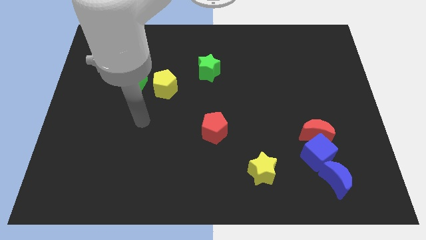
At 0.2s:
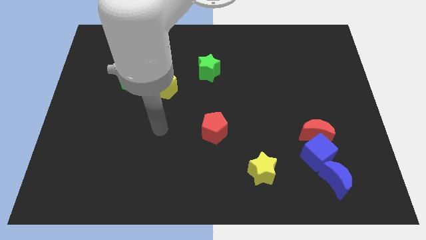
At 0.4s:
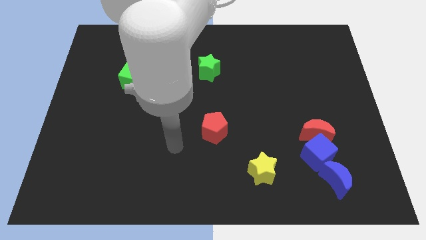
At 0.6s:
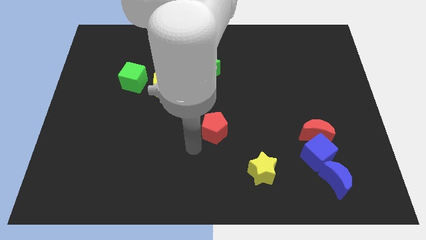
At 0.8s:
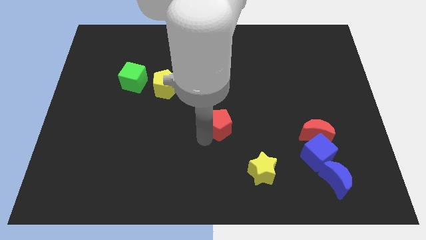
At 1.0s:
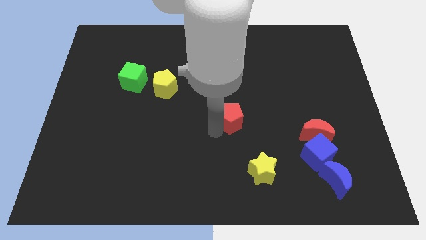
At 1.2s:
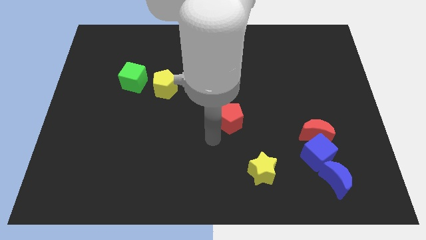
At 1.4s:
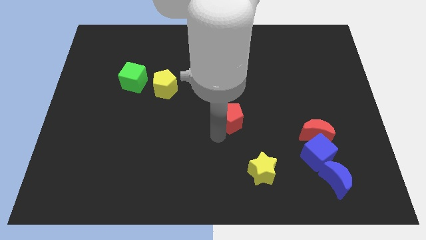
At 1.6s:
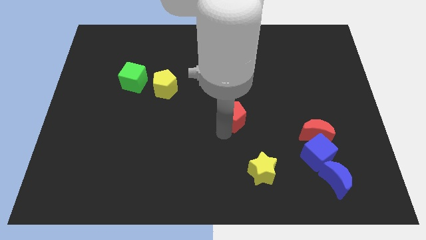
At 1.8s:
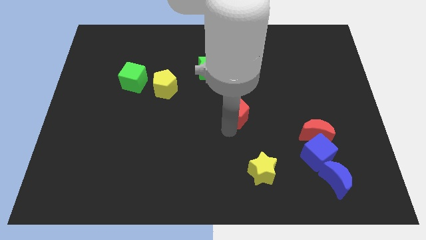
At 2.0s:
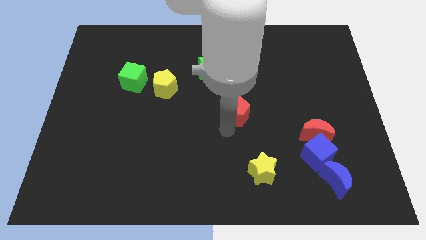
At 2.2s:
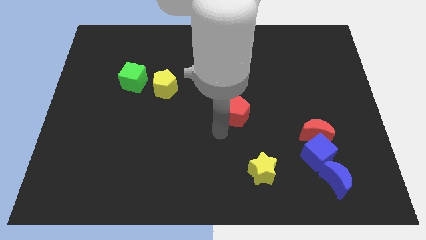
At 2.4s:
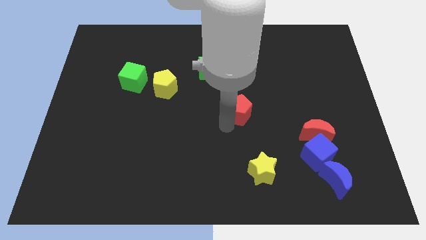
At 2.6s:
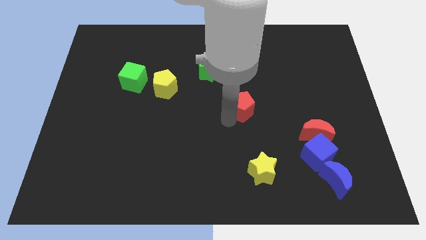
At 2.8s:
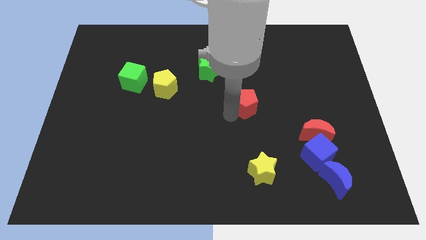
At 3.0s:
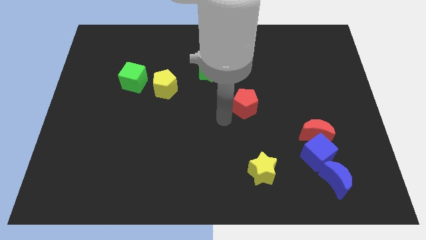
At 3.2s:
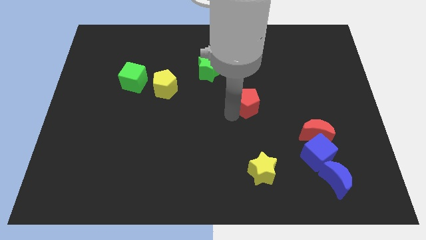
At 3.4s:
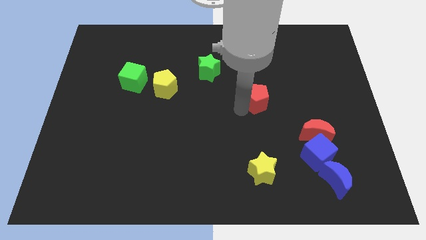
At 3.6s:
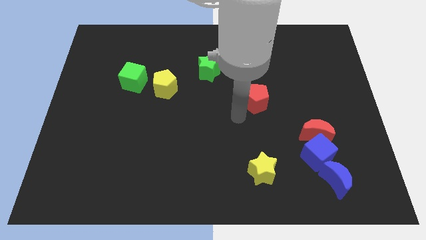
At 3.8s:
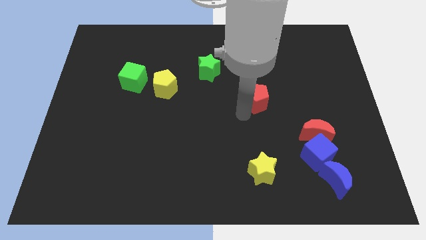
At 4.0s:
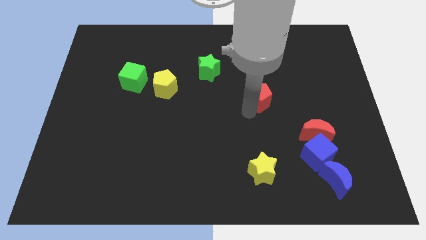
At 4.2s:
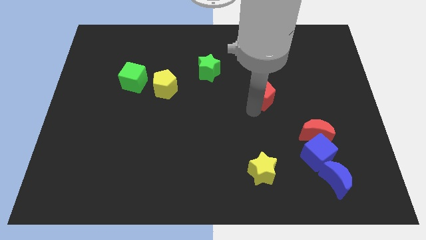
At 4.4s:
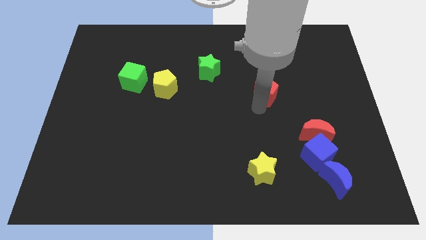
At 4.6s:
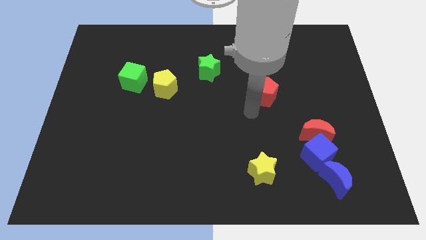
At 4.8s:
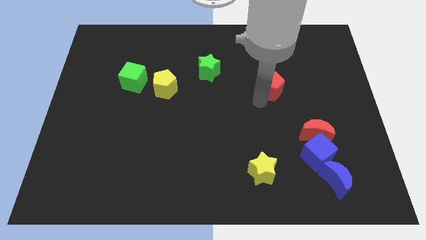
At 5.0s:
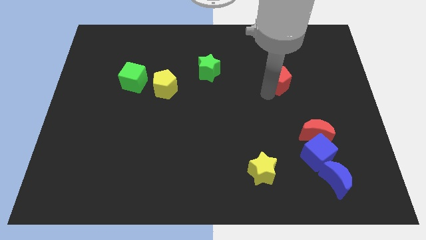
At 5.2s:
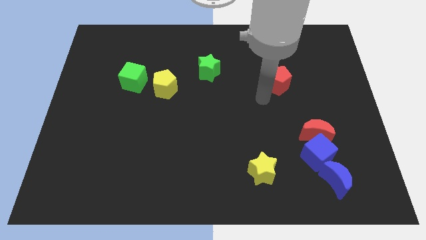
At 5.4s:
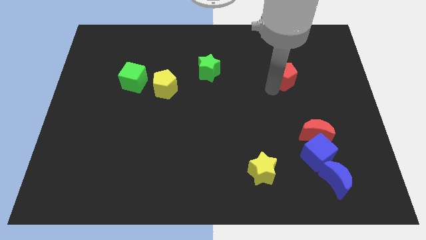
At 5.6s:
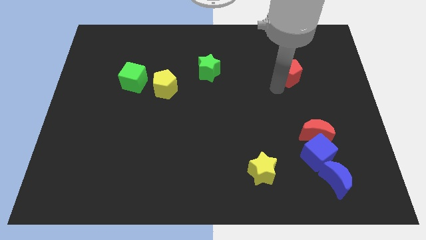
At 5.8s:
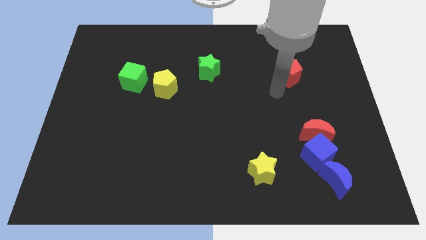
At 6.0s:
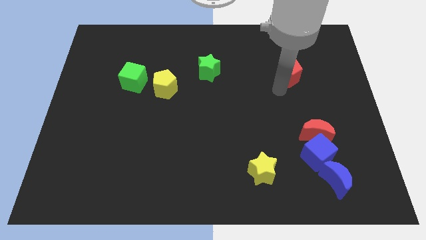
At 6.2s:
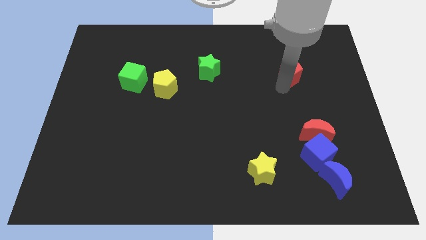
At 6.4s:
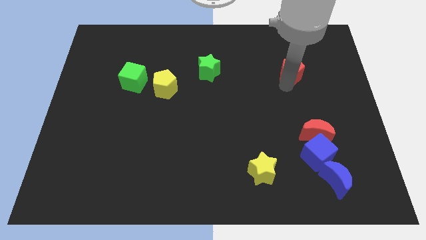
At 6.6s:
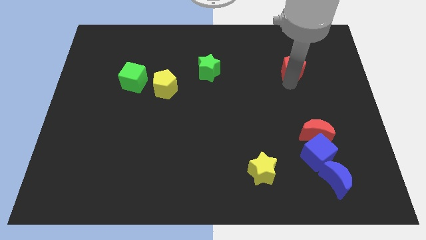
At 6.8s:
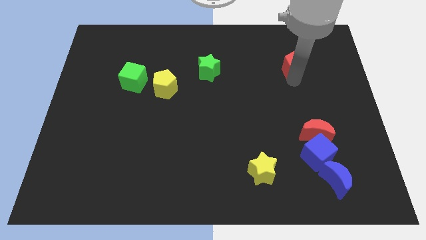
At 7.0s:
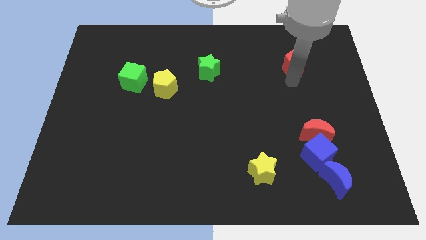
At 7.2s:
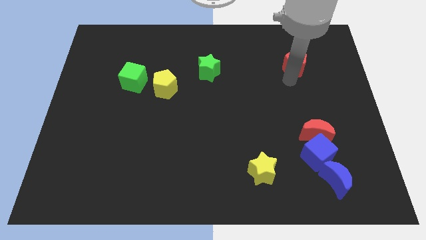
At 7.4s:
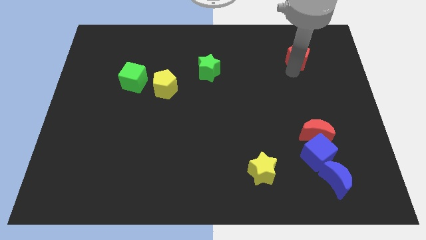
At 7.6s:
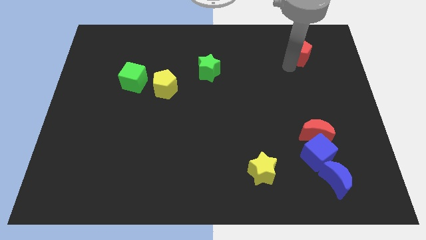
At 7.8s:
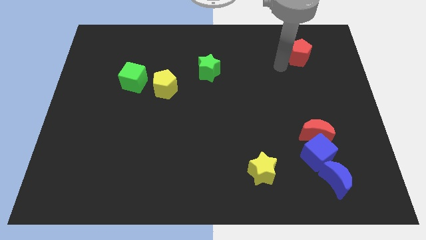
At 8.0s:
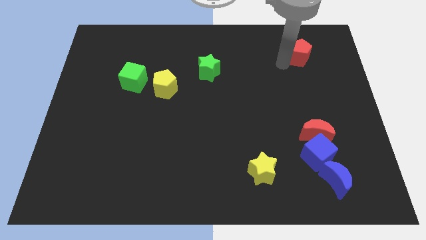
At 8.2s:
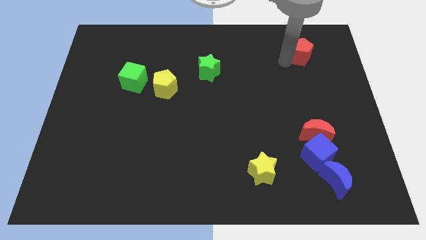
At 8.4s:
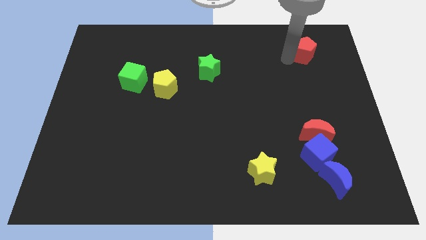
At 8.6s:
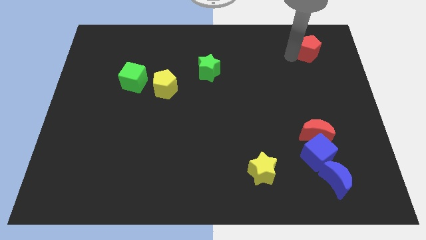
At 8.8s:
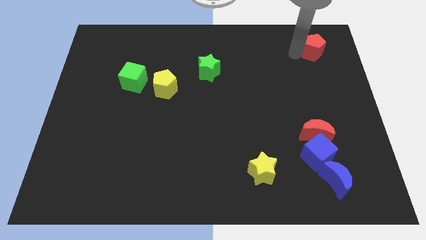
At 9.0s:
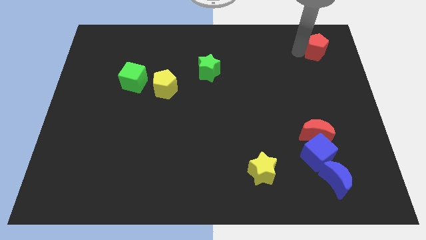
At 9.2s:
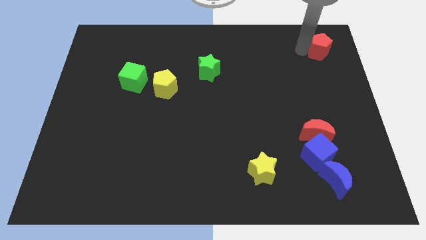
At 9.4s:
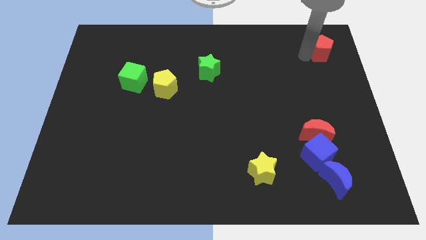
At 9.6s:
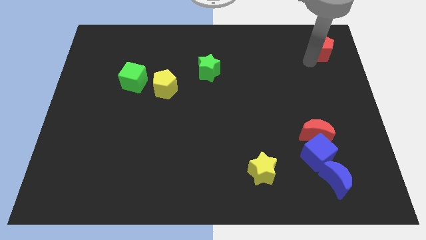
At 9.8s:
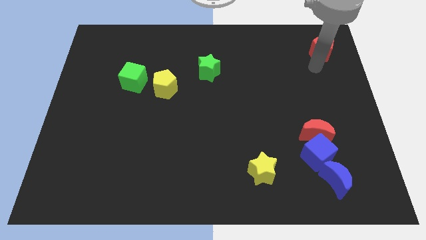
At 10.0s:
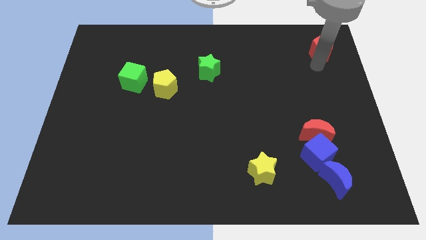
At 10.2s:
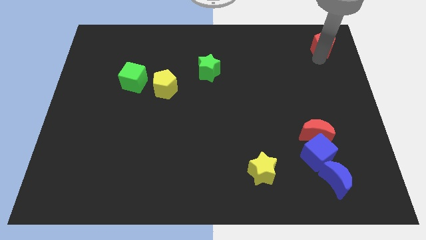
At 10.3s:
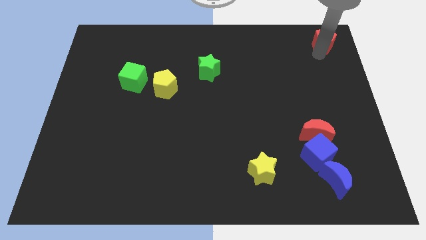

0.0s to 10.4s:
push the red pentagon to the top right

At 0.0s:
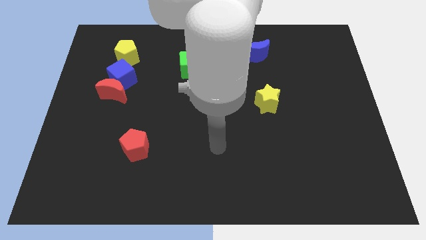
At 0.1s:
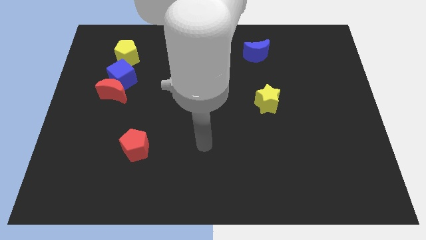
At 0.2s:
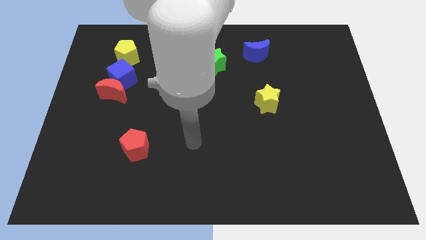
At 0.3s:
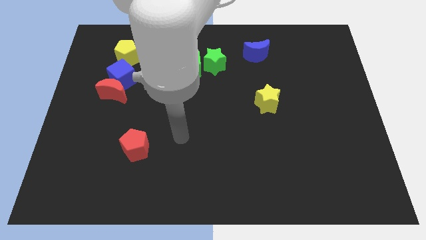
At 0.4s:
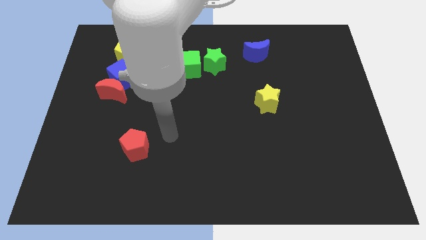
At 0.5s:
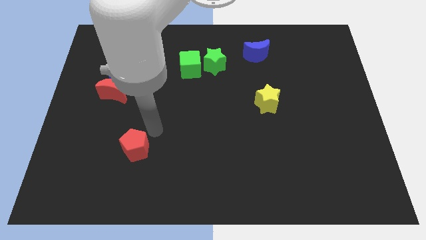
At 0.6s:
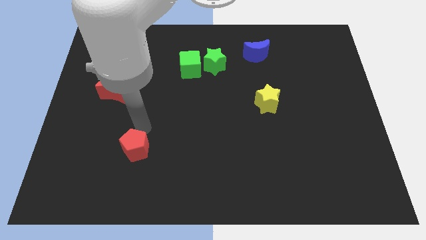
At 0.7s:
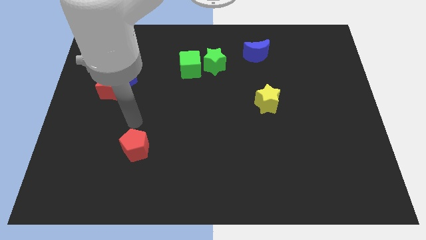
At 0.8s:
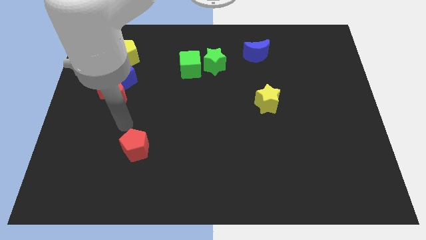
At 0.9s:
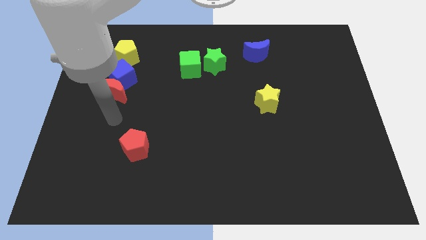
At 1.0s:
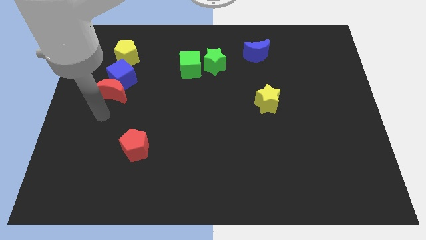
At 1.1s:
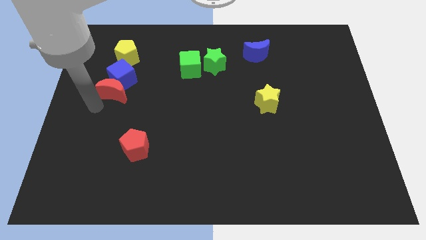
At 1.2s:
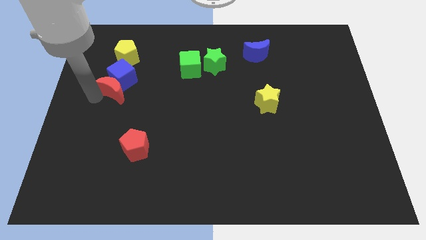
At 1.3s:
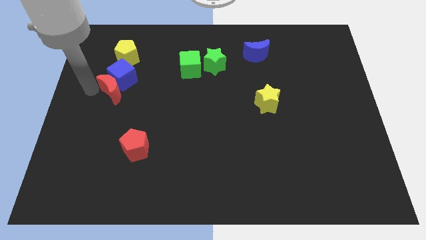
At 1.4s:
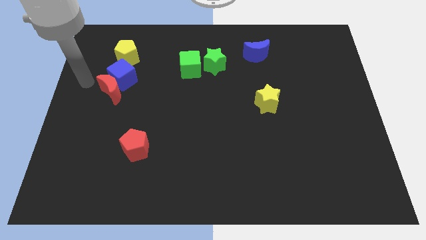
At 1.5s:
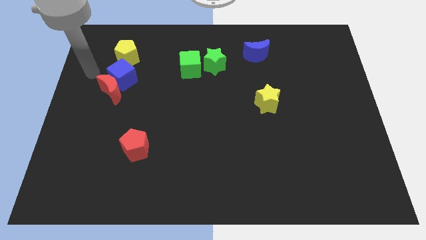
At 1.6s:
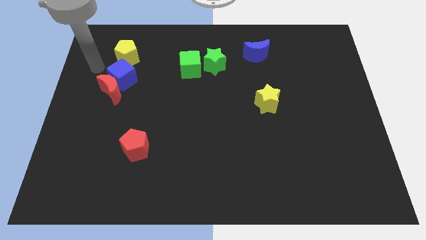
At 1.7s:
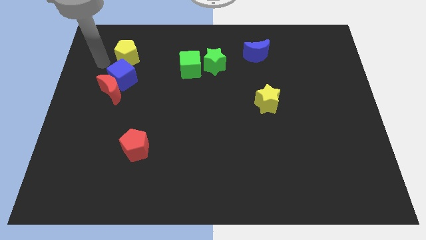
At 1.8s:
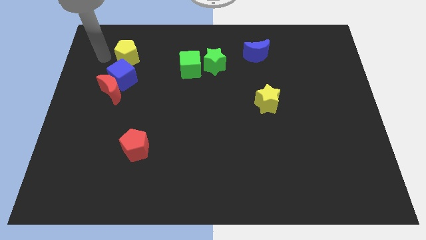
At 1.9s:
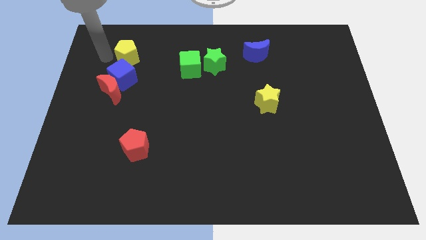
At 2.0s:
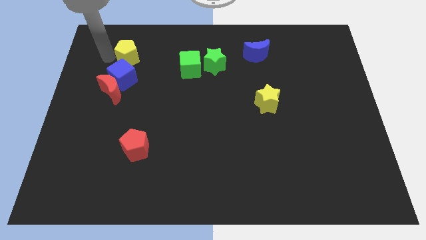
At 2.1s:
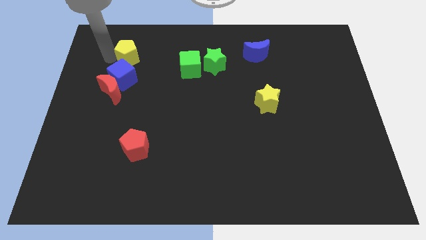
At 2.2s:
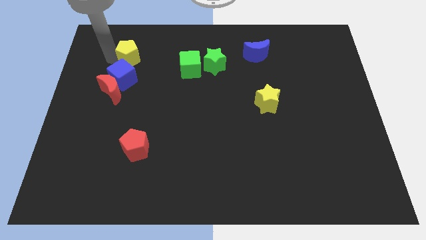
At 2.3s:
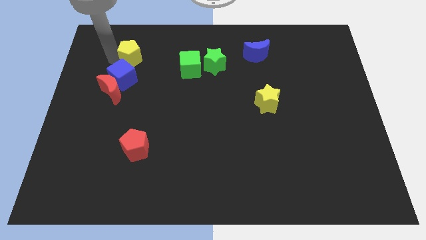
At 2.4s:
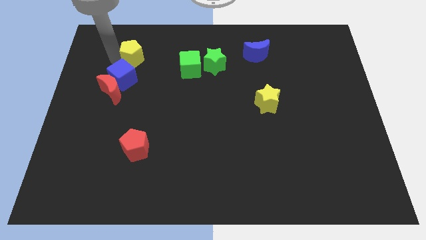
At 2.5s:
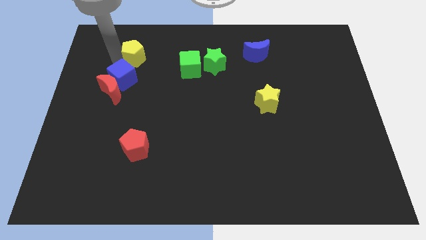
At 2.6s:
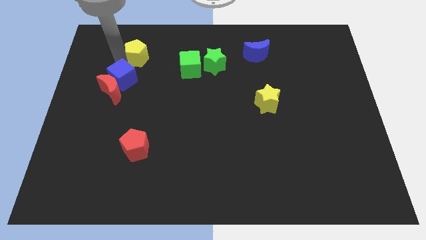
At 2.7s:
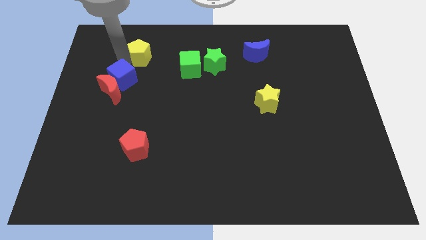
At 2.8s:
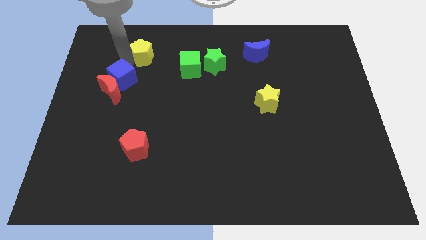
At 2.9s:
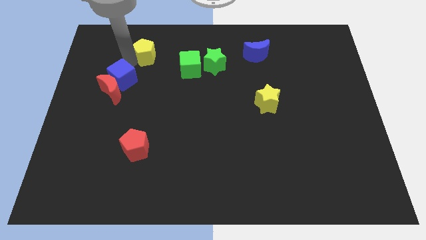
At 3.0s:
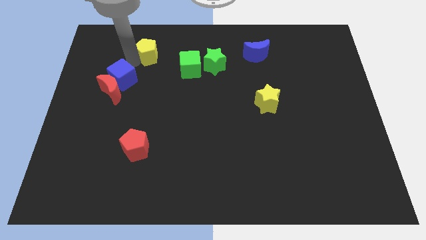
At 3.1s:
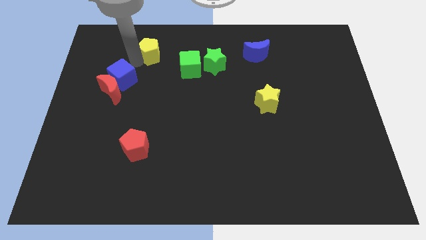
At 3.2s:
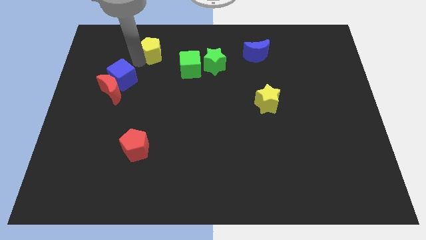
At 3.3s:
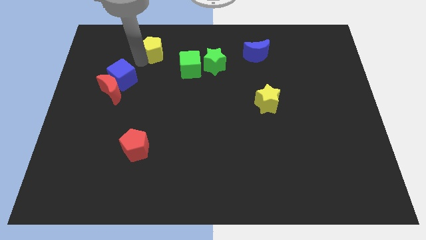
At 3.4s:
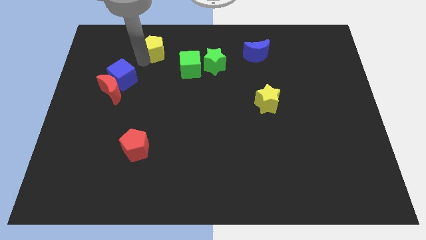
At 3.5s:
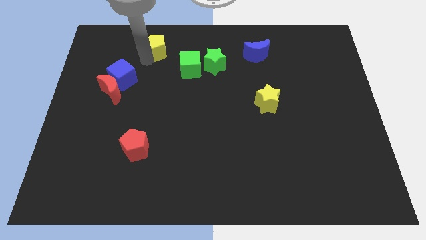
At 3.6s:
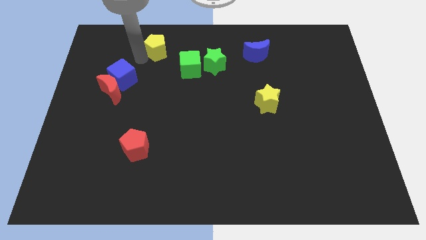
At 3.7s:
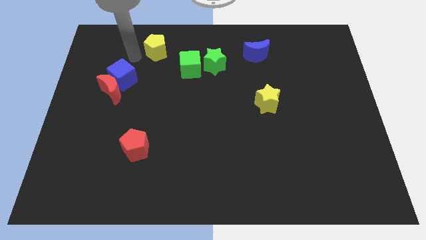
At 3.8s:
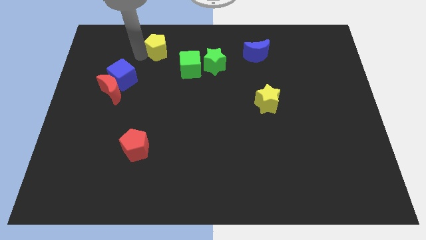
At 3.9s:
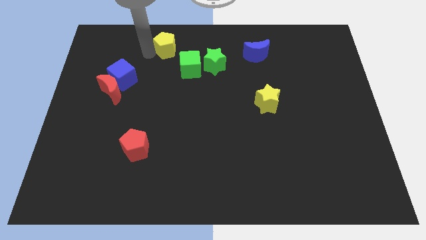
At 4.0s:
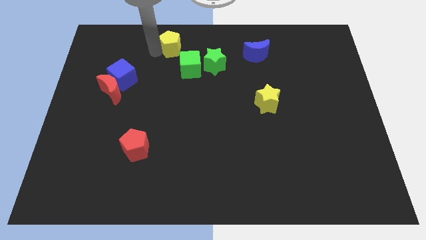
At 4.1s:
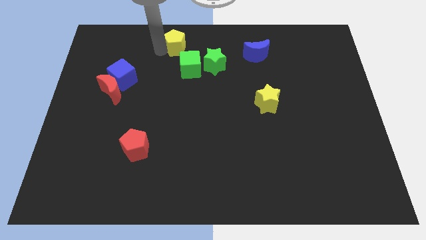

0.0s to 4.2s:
put the yellow pentagon to the top side
